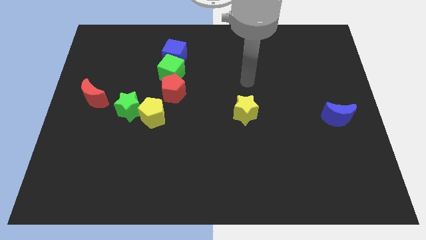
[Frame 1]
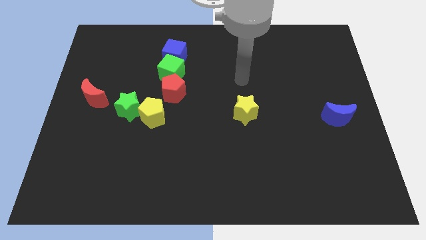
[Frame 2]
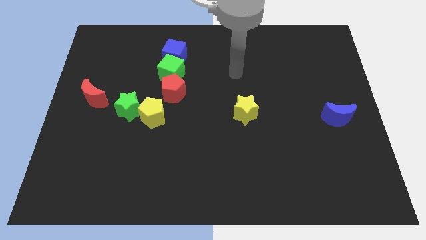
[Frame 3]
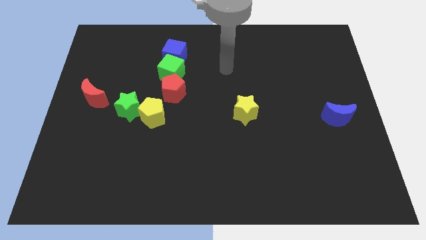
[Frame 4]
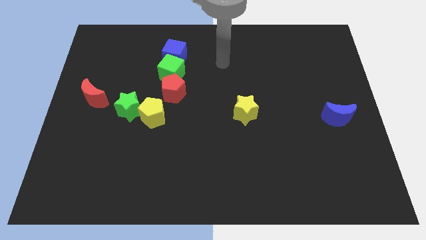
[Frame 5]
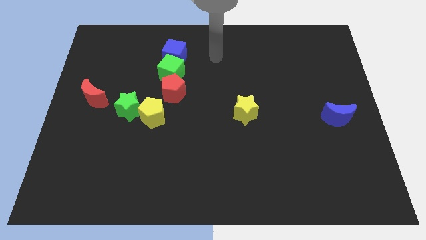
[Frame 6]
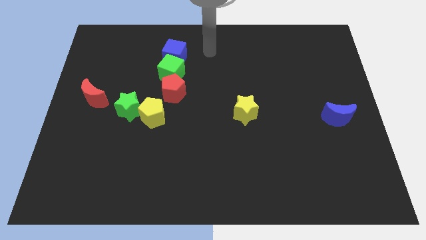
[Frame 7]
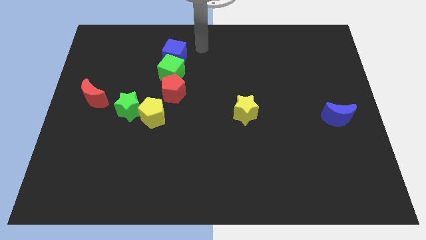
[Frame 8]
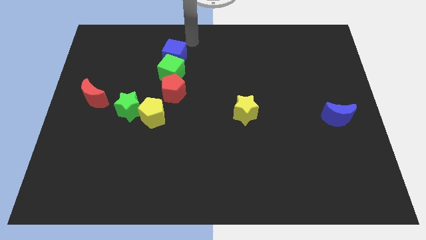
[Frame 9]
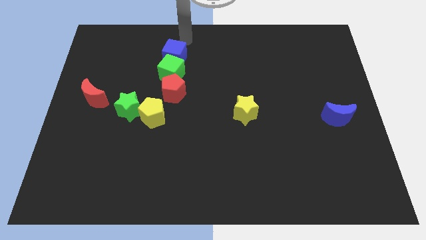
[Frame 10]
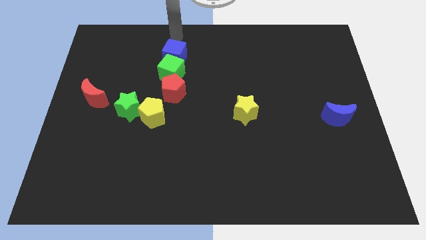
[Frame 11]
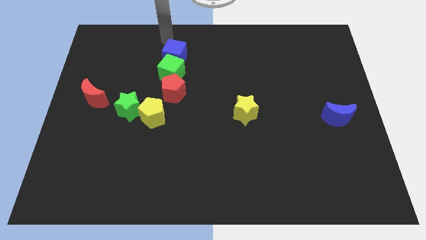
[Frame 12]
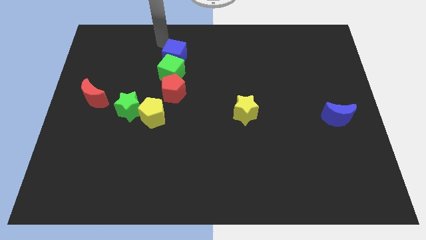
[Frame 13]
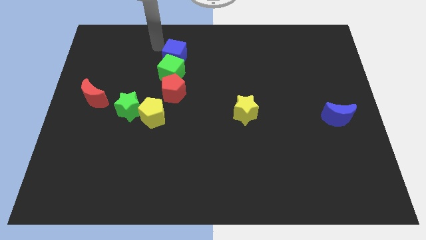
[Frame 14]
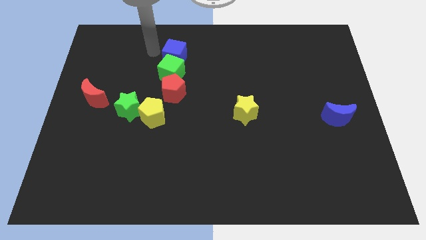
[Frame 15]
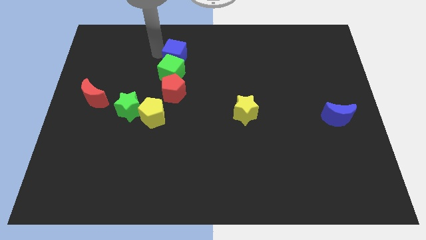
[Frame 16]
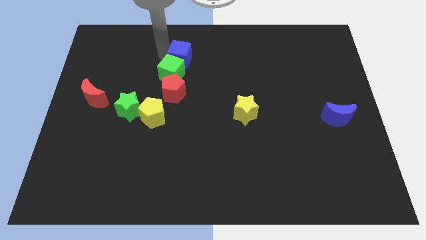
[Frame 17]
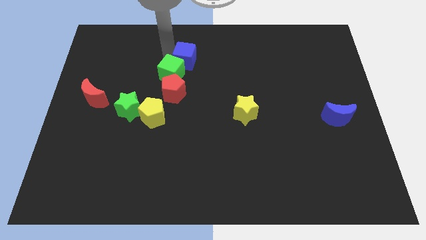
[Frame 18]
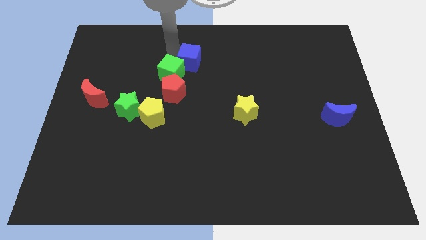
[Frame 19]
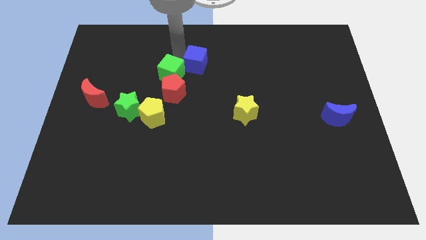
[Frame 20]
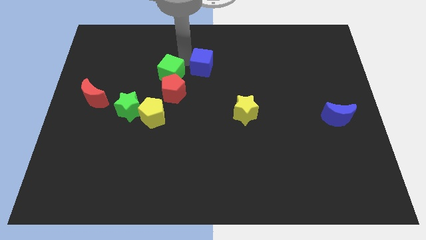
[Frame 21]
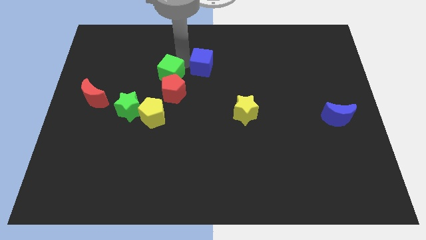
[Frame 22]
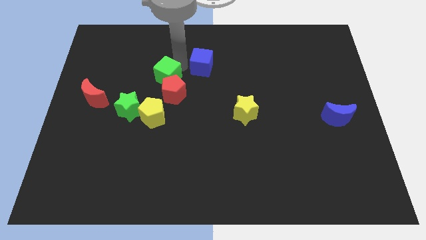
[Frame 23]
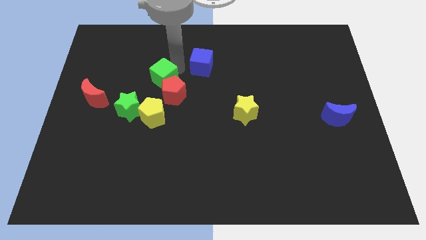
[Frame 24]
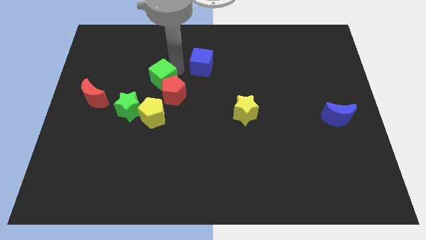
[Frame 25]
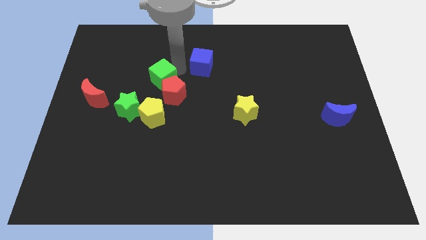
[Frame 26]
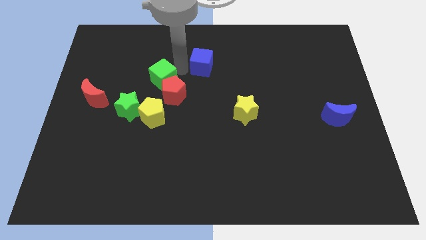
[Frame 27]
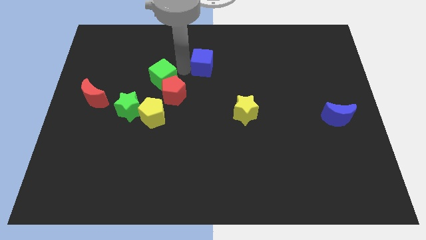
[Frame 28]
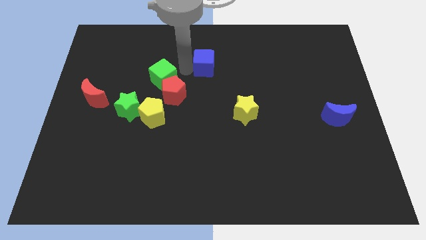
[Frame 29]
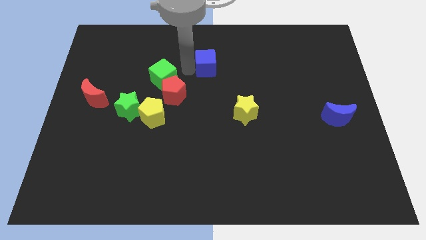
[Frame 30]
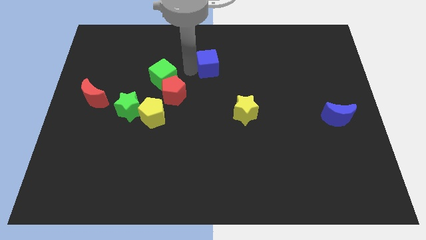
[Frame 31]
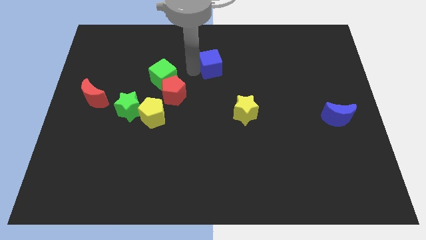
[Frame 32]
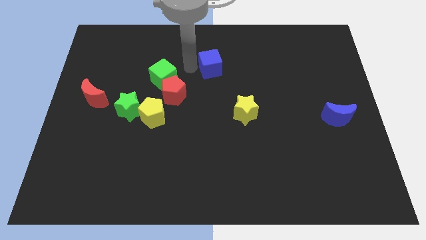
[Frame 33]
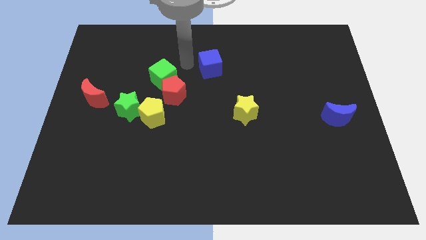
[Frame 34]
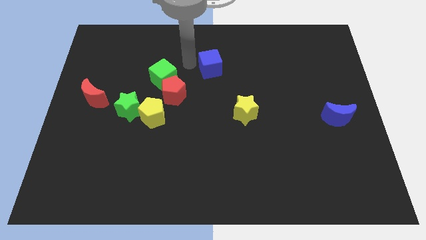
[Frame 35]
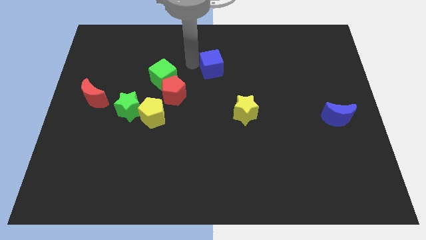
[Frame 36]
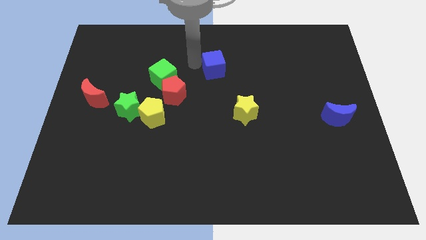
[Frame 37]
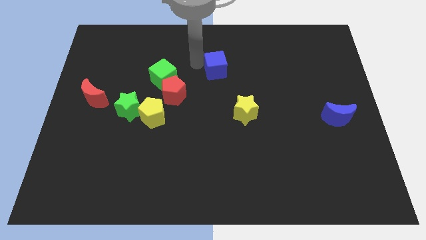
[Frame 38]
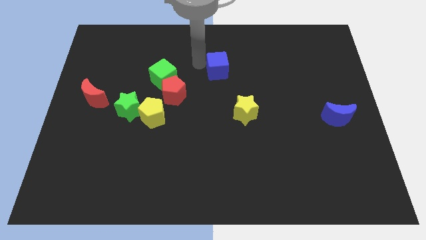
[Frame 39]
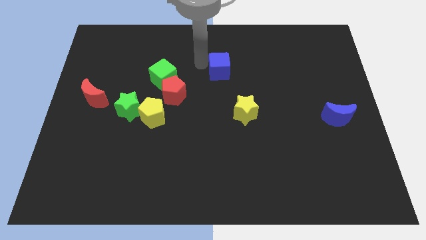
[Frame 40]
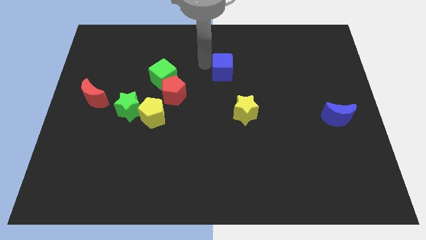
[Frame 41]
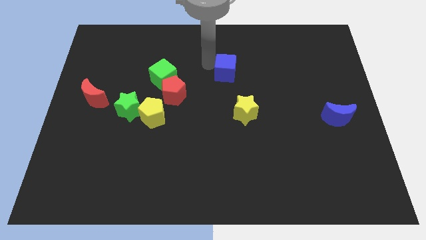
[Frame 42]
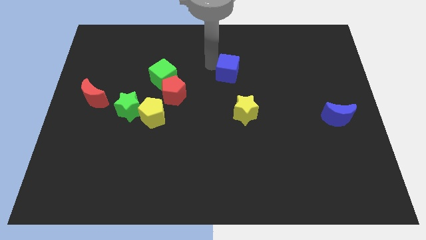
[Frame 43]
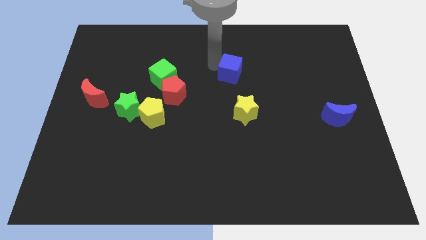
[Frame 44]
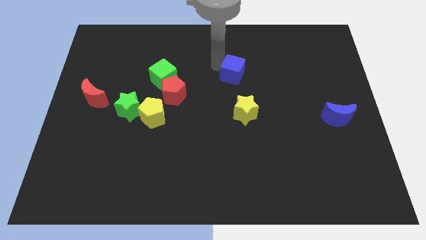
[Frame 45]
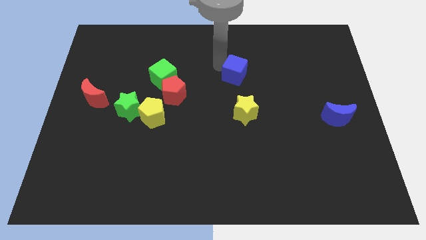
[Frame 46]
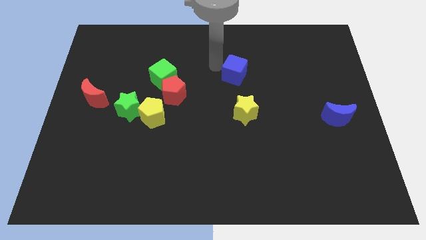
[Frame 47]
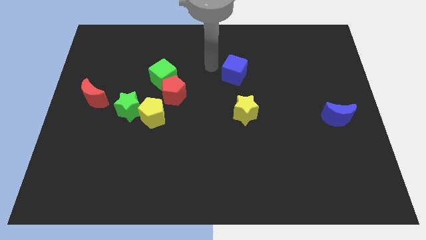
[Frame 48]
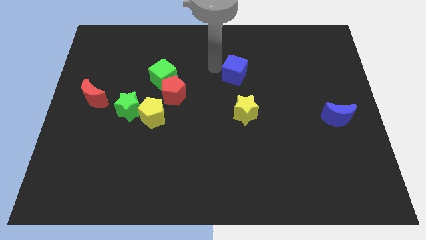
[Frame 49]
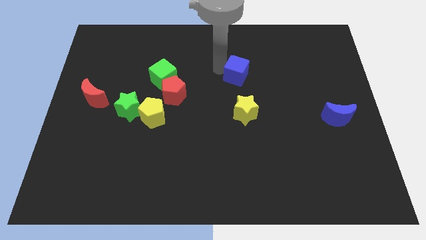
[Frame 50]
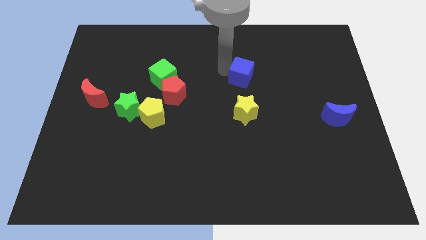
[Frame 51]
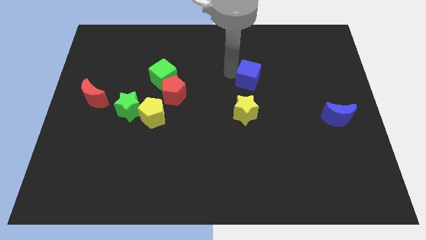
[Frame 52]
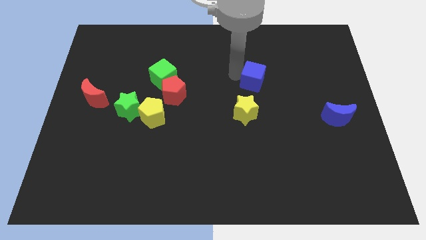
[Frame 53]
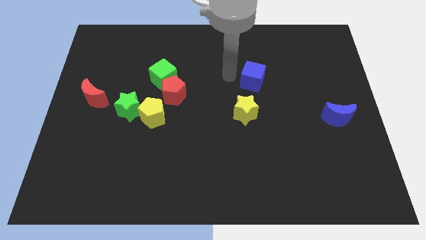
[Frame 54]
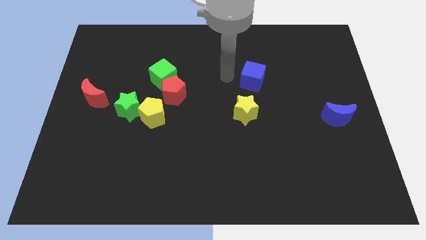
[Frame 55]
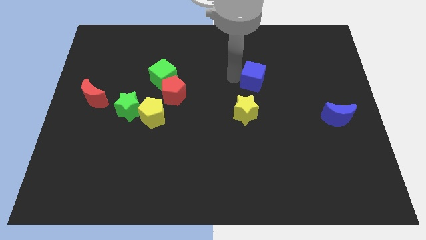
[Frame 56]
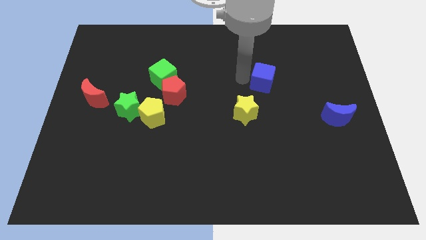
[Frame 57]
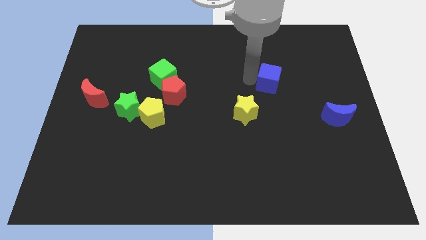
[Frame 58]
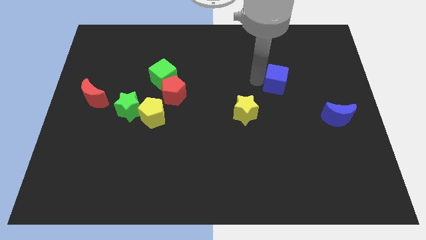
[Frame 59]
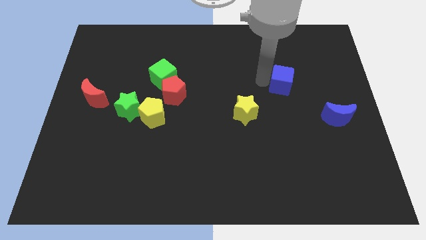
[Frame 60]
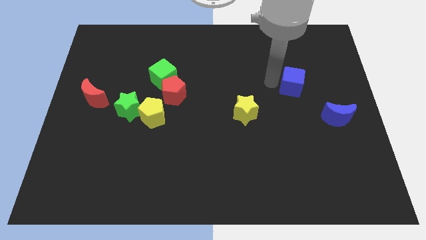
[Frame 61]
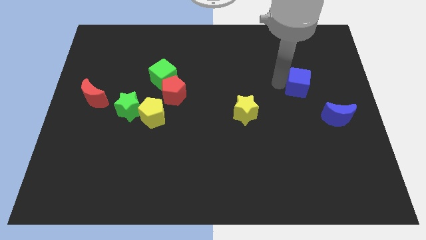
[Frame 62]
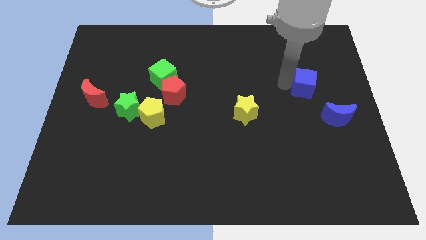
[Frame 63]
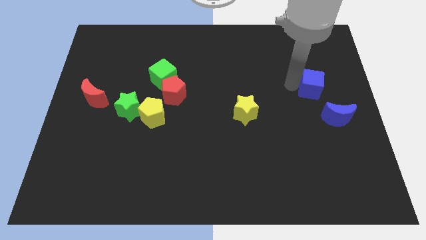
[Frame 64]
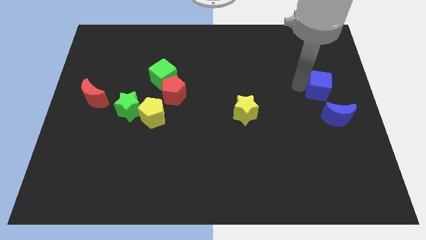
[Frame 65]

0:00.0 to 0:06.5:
move the blue cube to the center right

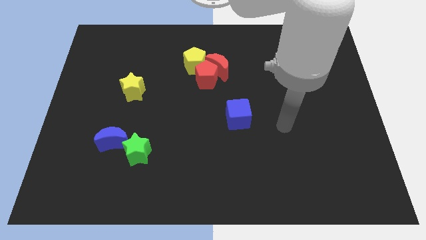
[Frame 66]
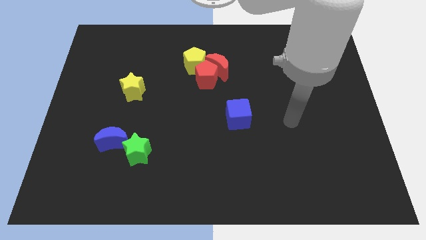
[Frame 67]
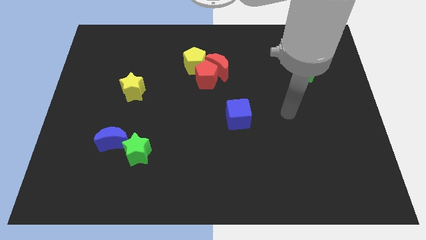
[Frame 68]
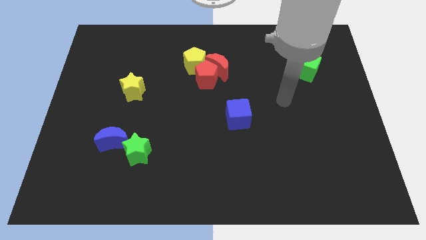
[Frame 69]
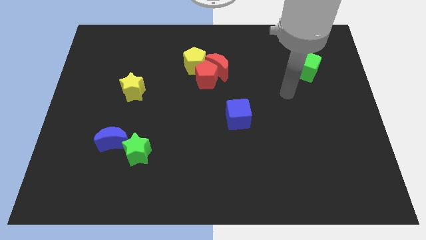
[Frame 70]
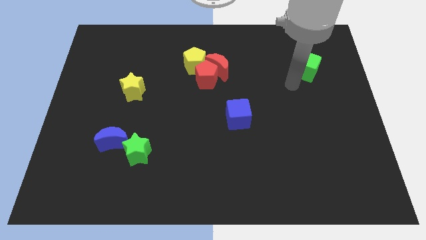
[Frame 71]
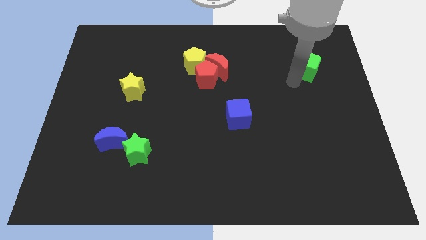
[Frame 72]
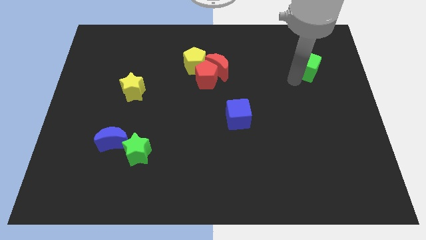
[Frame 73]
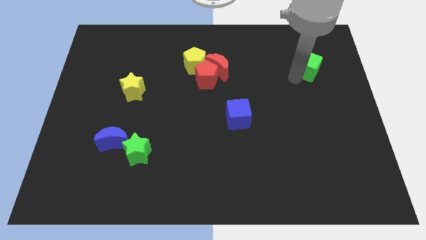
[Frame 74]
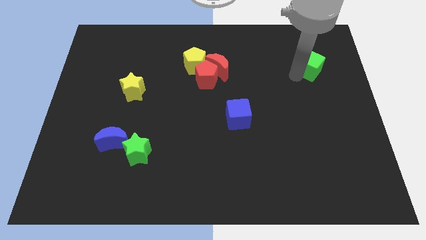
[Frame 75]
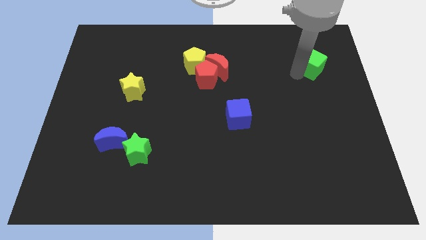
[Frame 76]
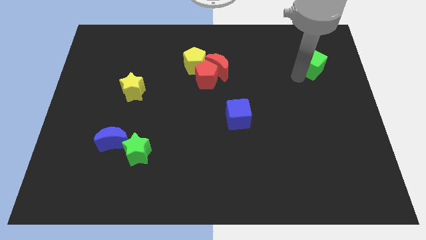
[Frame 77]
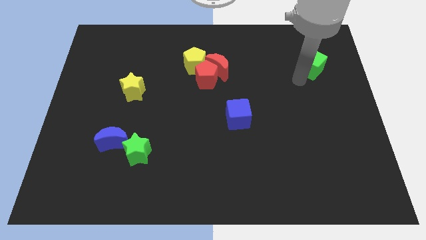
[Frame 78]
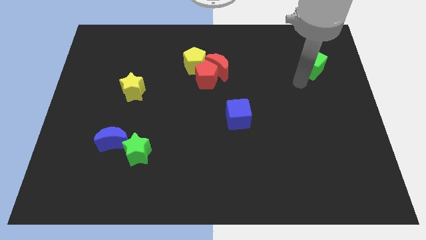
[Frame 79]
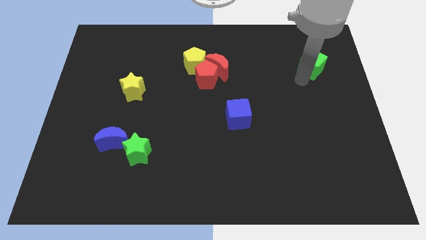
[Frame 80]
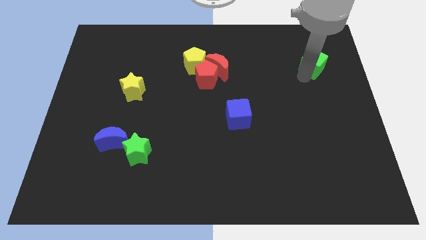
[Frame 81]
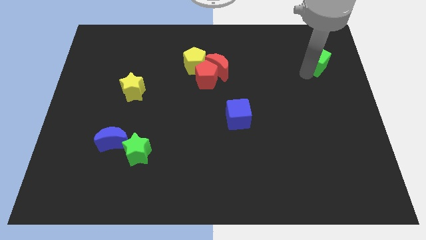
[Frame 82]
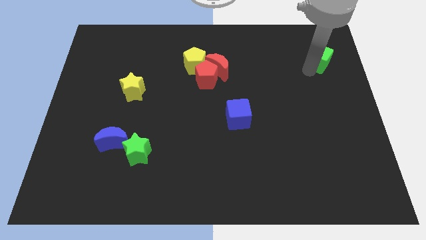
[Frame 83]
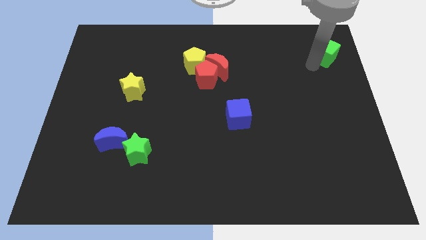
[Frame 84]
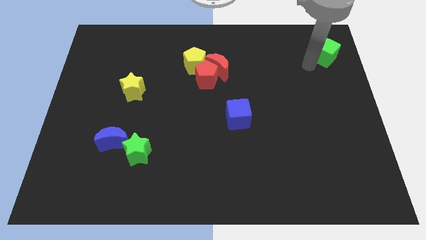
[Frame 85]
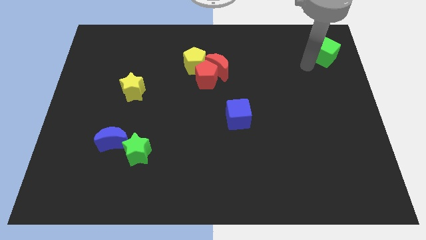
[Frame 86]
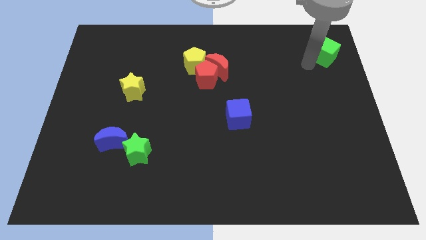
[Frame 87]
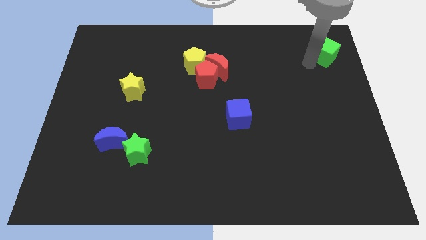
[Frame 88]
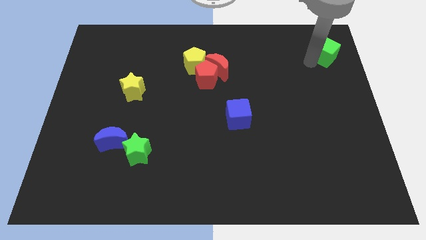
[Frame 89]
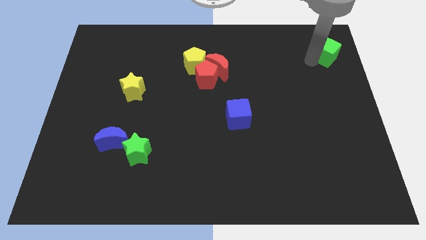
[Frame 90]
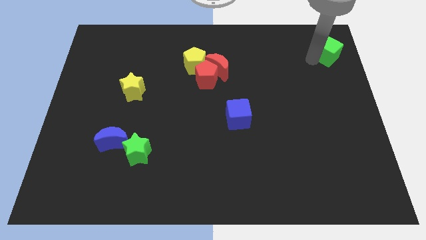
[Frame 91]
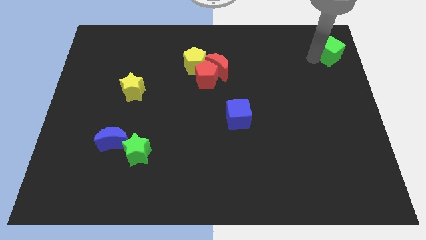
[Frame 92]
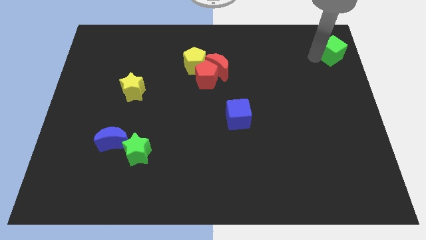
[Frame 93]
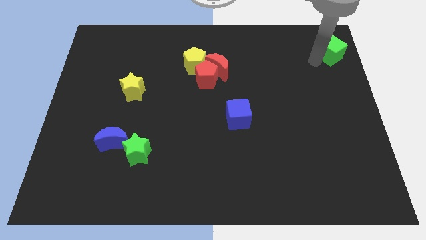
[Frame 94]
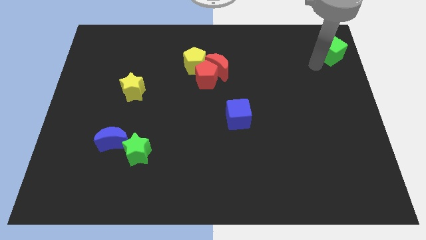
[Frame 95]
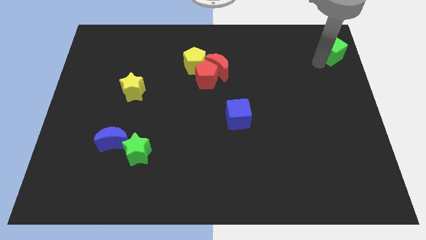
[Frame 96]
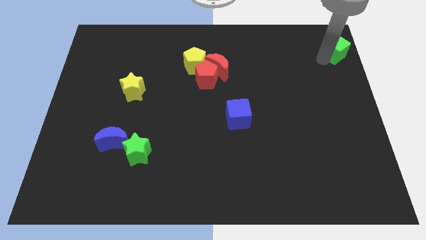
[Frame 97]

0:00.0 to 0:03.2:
slide the green cube to the top right corner
